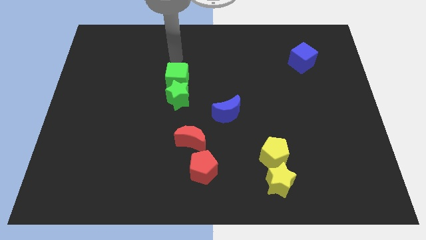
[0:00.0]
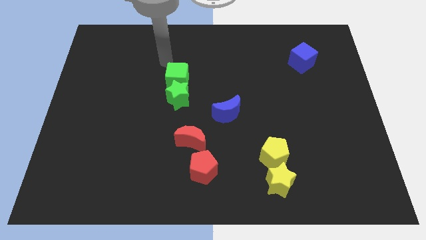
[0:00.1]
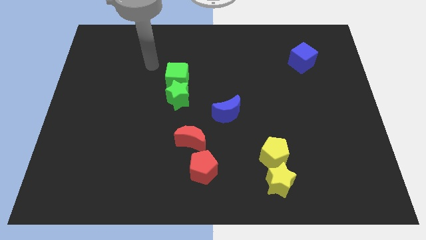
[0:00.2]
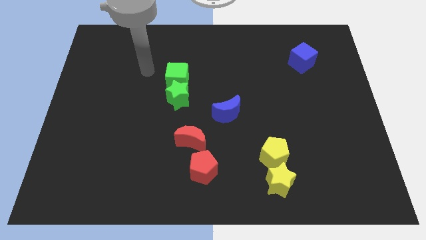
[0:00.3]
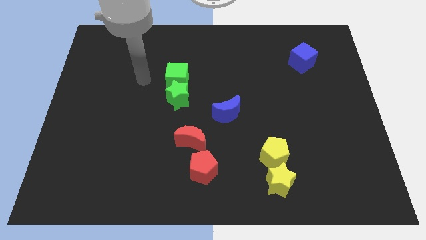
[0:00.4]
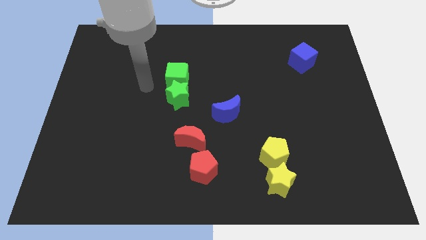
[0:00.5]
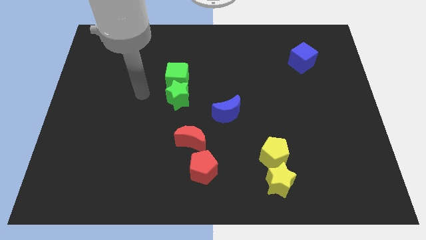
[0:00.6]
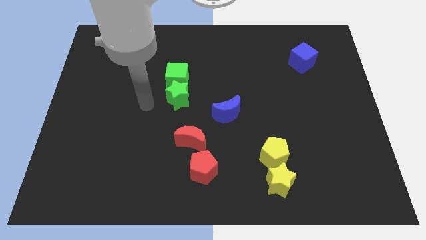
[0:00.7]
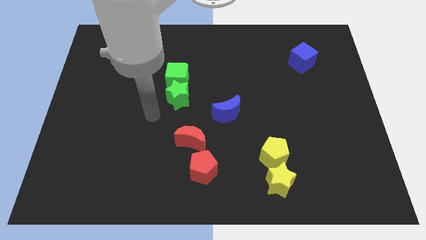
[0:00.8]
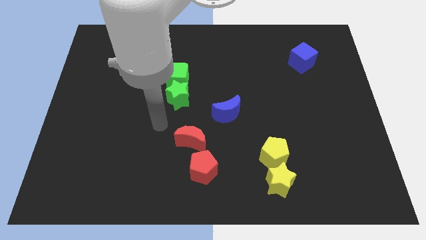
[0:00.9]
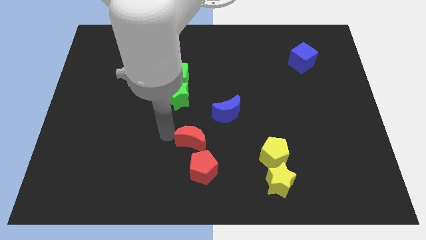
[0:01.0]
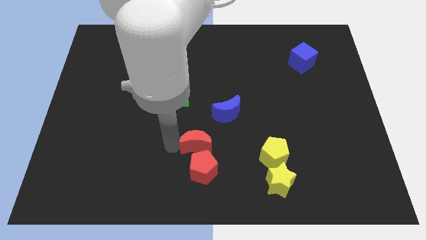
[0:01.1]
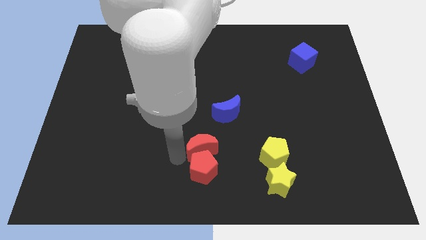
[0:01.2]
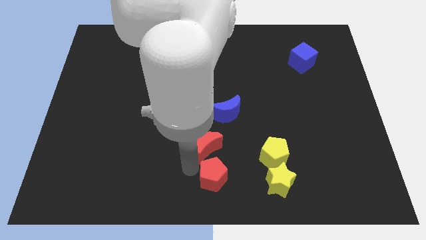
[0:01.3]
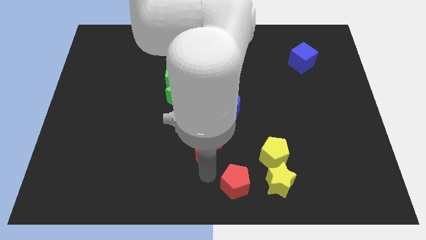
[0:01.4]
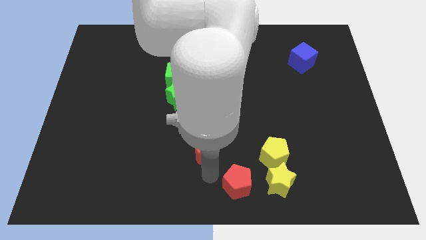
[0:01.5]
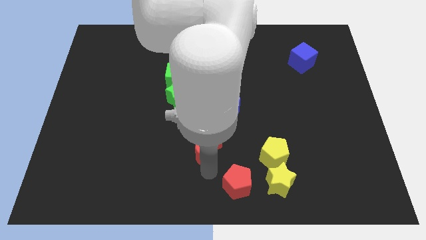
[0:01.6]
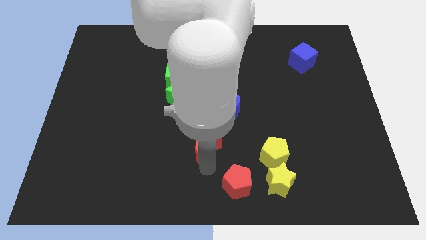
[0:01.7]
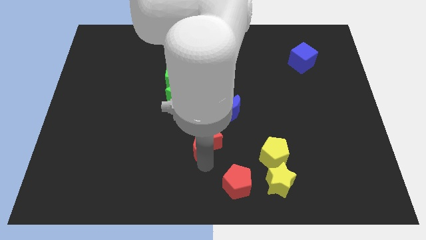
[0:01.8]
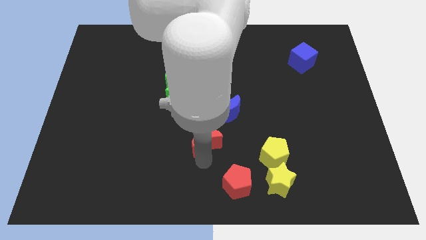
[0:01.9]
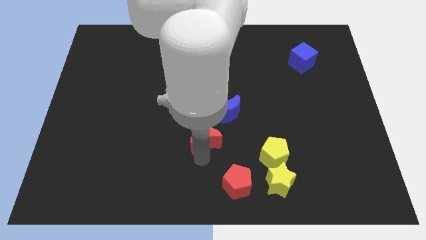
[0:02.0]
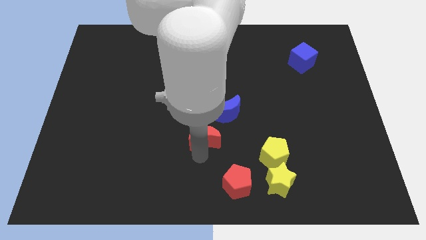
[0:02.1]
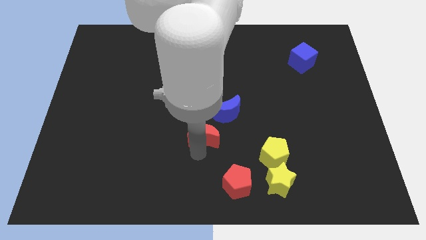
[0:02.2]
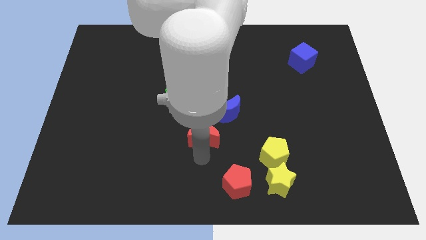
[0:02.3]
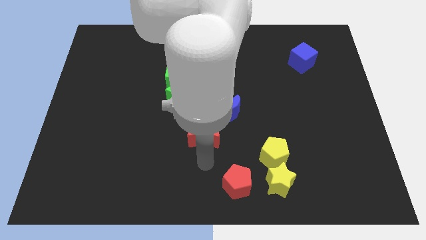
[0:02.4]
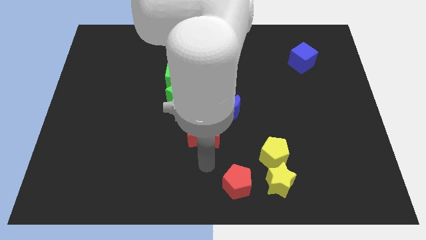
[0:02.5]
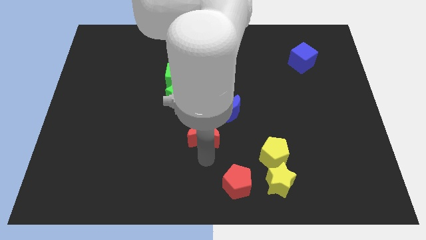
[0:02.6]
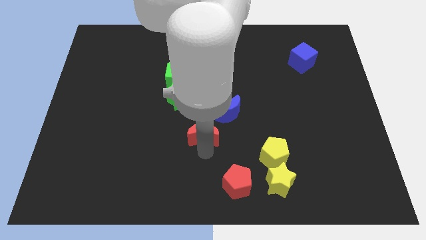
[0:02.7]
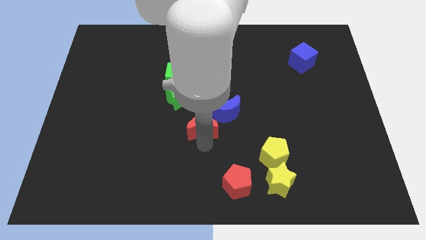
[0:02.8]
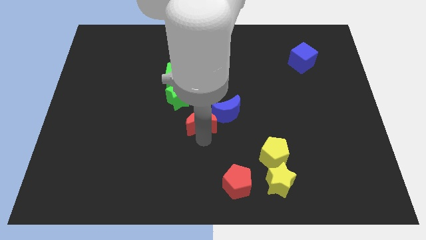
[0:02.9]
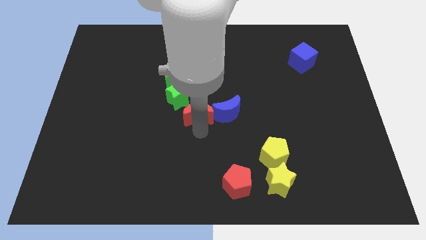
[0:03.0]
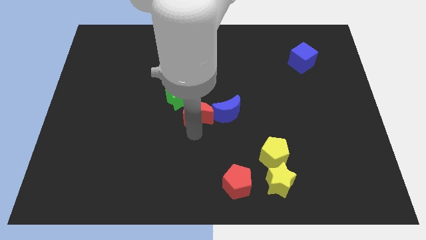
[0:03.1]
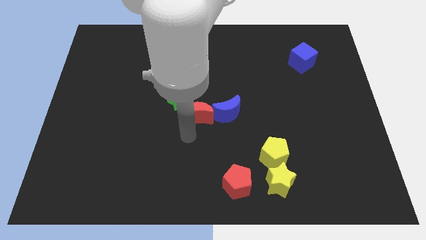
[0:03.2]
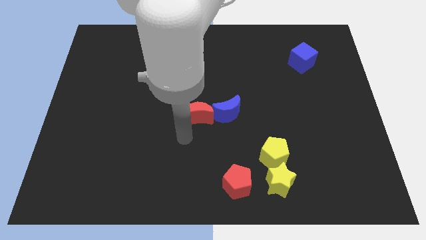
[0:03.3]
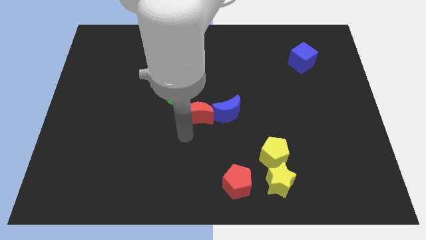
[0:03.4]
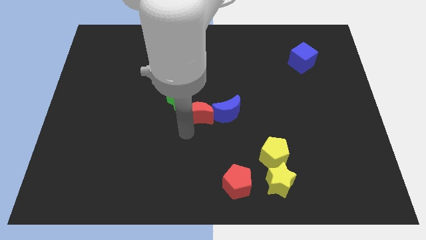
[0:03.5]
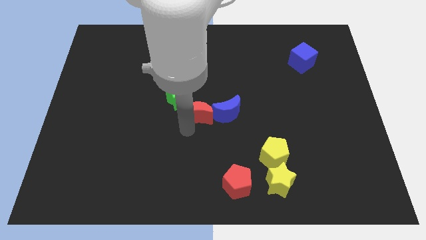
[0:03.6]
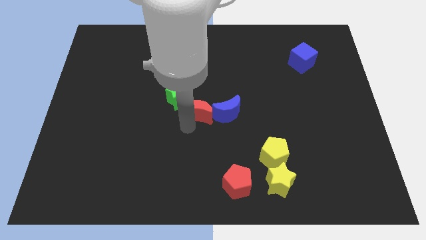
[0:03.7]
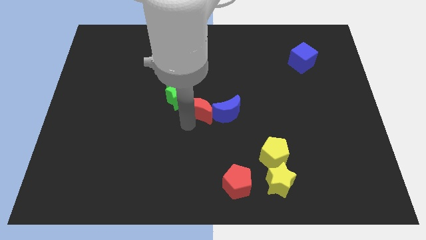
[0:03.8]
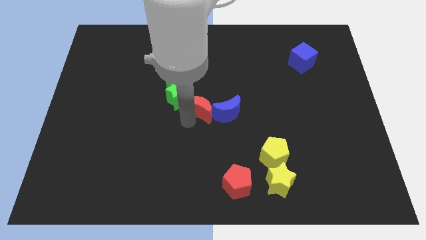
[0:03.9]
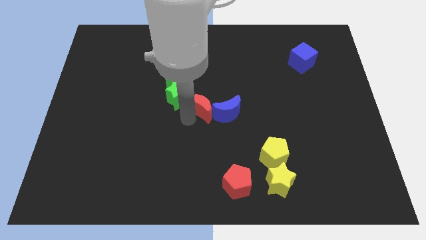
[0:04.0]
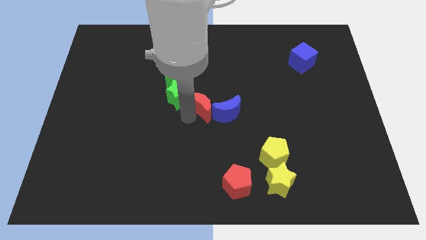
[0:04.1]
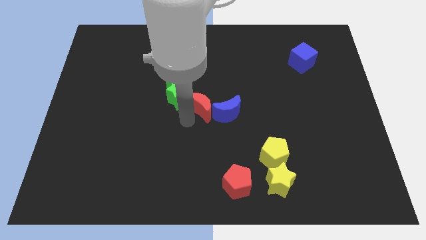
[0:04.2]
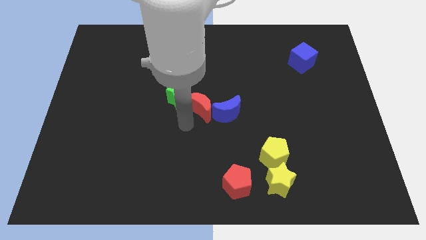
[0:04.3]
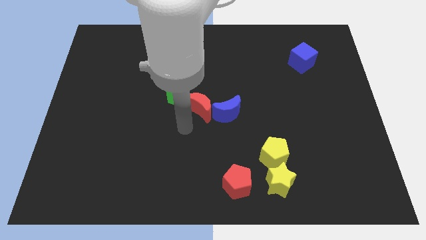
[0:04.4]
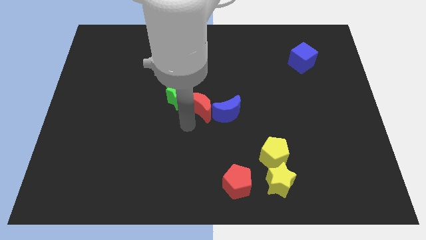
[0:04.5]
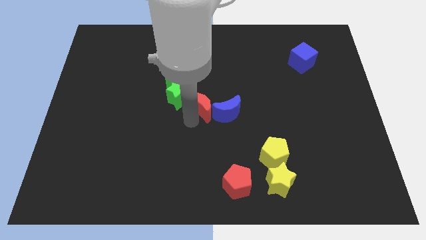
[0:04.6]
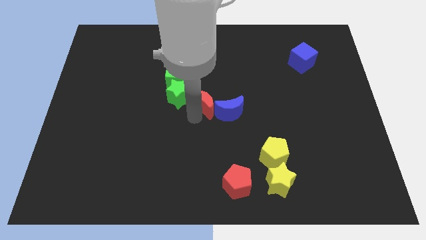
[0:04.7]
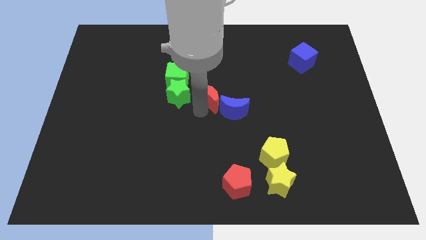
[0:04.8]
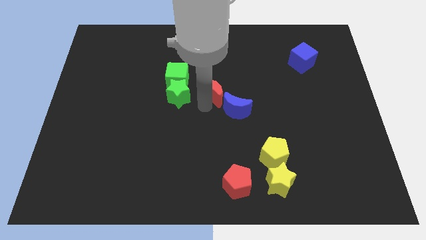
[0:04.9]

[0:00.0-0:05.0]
put the red moon right of the green cube

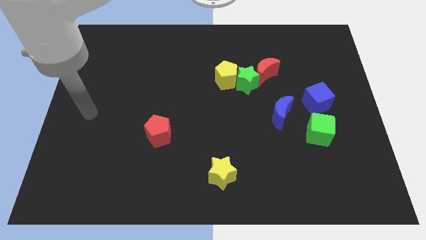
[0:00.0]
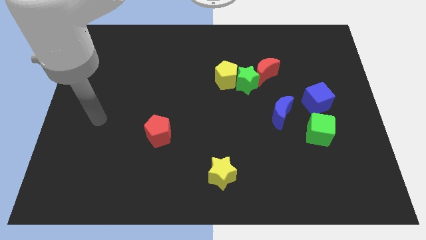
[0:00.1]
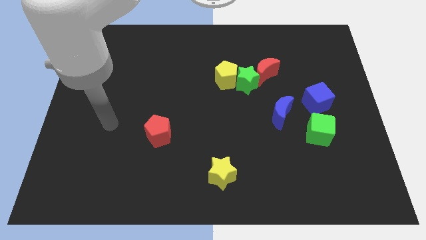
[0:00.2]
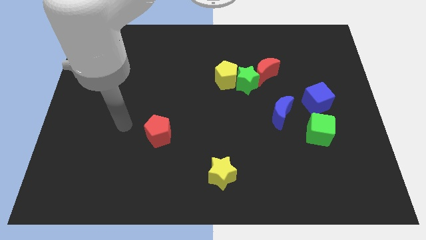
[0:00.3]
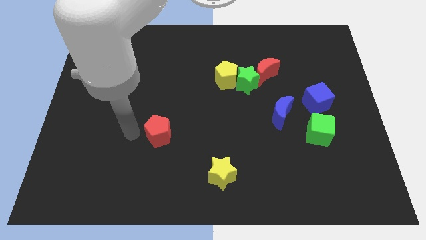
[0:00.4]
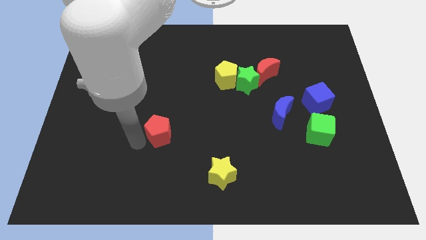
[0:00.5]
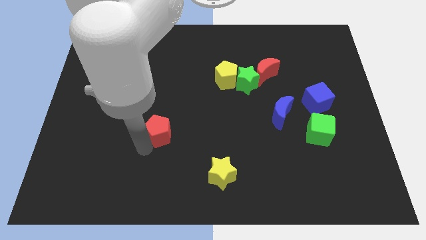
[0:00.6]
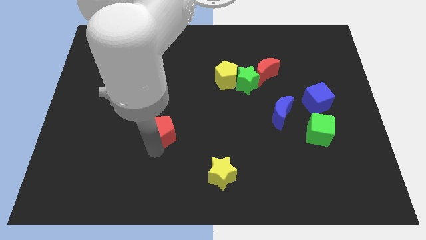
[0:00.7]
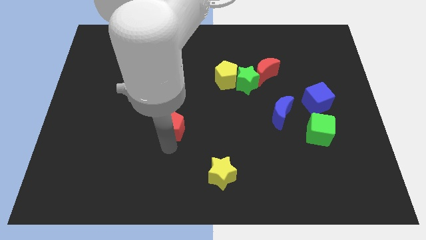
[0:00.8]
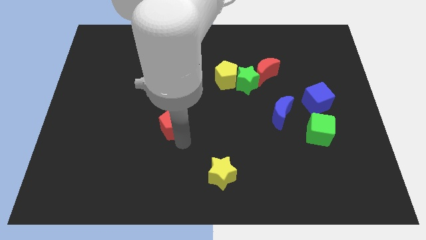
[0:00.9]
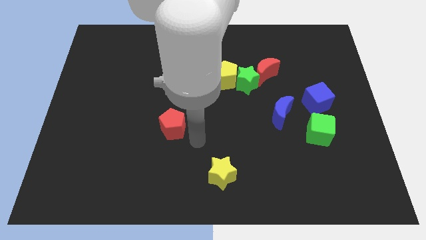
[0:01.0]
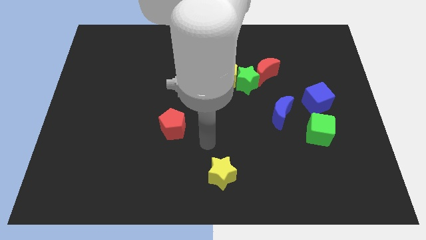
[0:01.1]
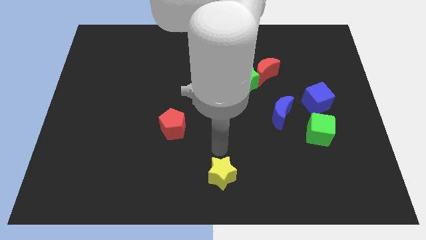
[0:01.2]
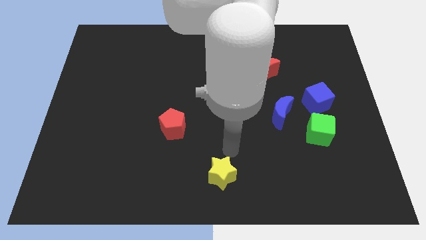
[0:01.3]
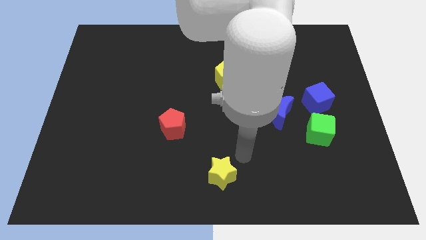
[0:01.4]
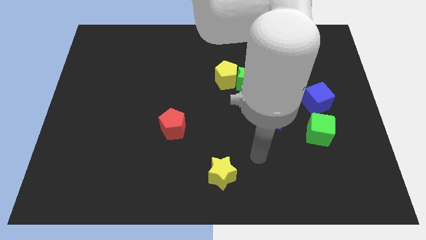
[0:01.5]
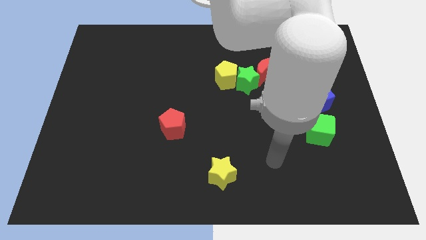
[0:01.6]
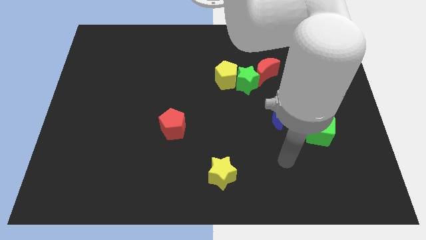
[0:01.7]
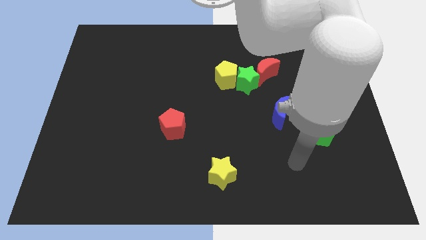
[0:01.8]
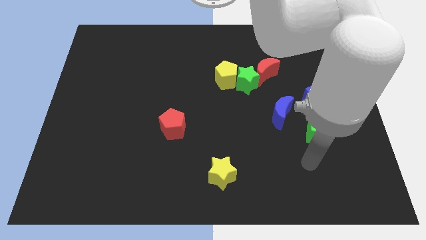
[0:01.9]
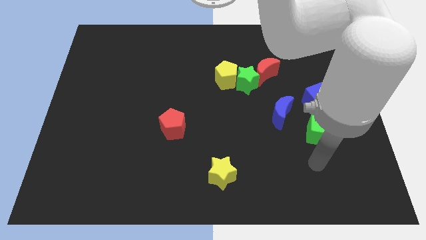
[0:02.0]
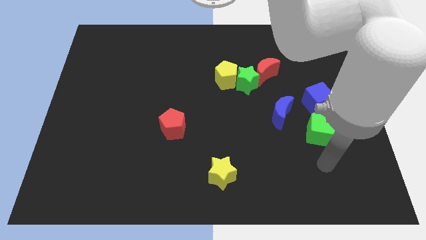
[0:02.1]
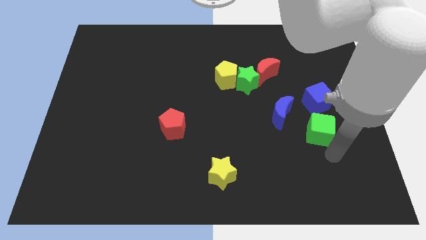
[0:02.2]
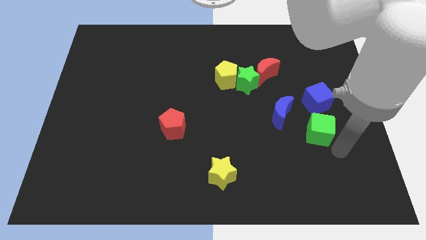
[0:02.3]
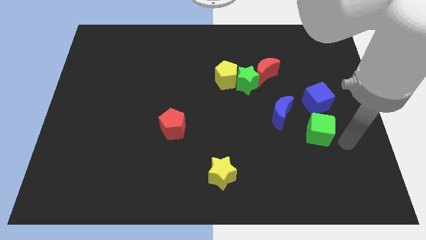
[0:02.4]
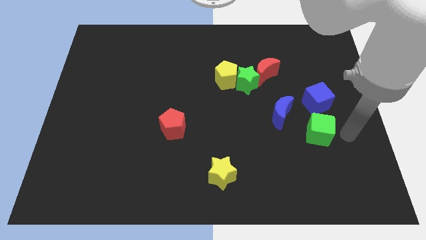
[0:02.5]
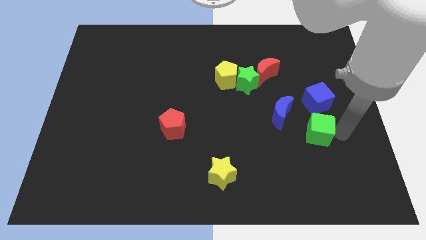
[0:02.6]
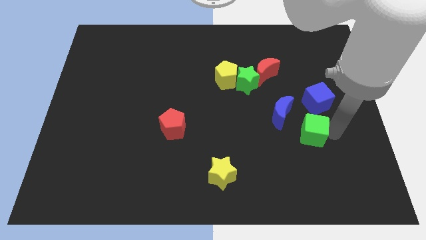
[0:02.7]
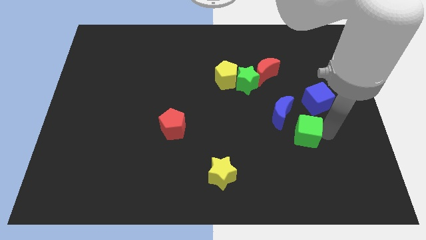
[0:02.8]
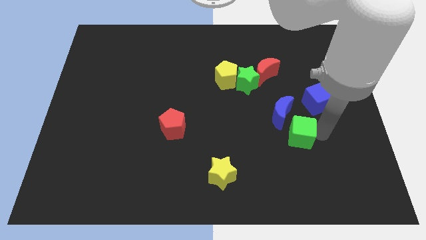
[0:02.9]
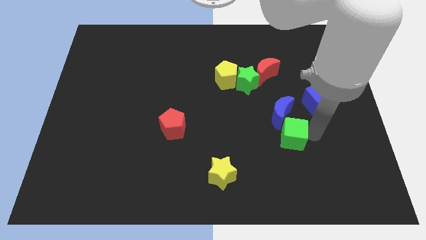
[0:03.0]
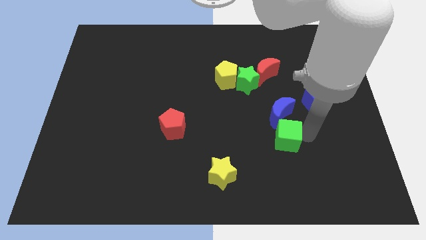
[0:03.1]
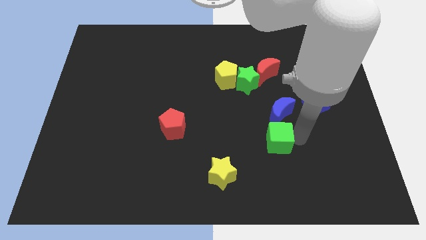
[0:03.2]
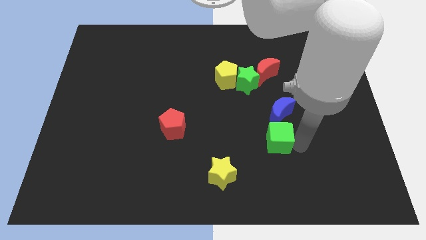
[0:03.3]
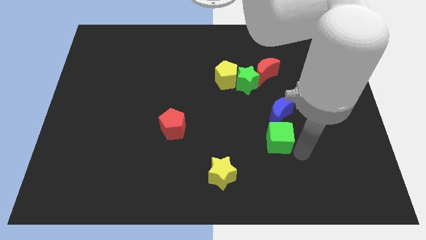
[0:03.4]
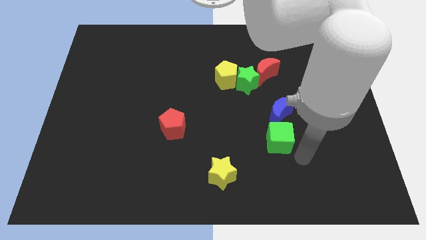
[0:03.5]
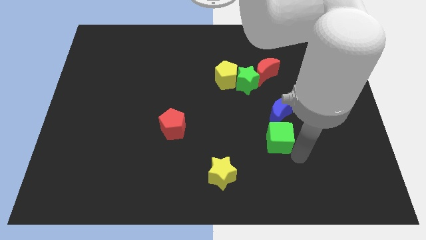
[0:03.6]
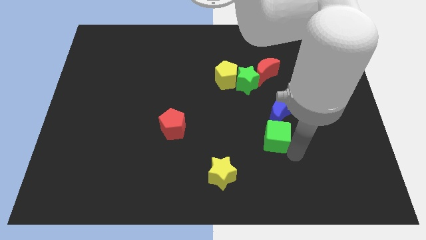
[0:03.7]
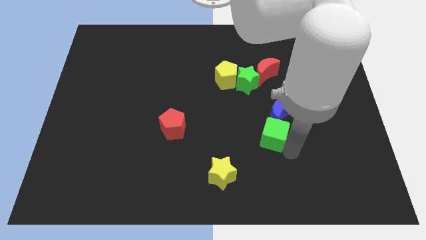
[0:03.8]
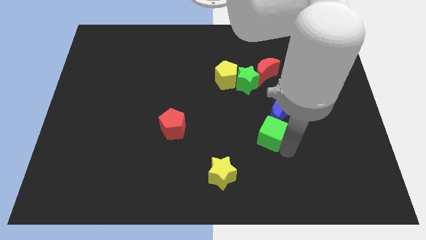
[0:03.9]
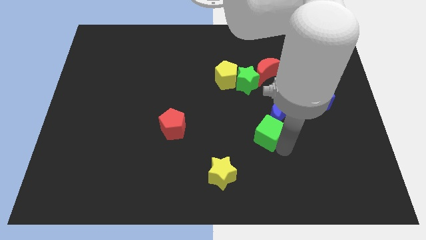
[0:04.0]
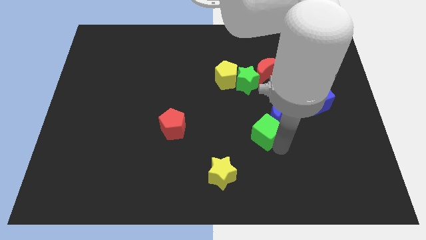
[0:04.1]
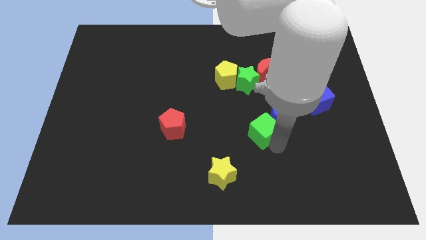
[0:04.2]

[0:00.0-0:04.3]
slide the green cube to the bottom side of the green star
